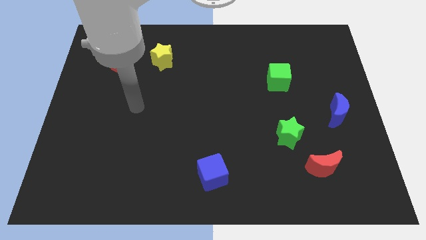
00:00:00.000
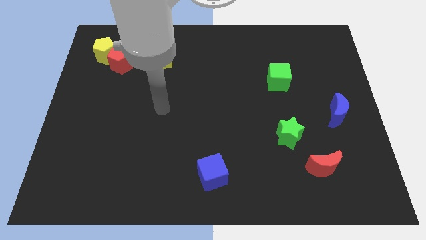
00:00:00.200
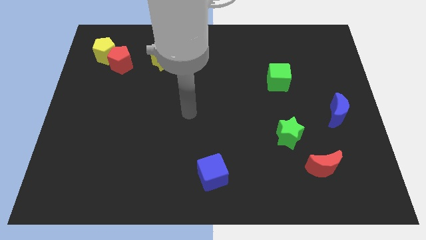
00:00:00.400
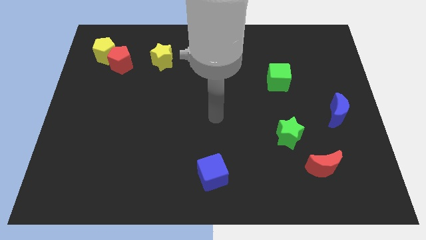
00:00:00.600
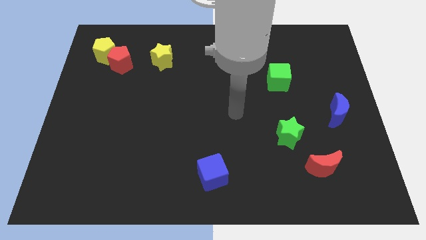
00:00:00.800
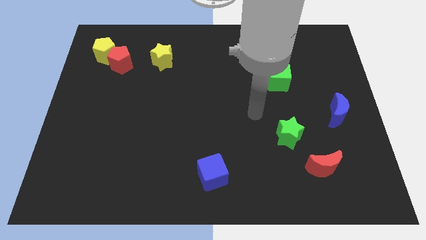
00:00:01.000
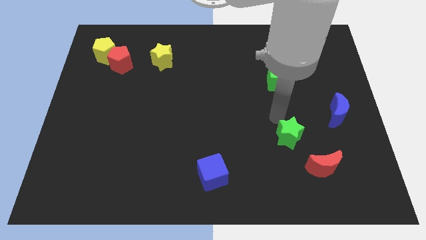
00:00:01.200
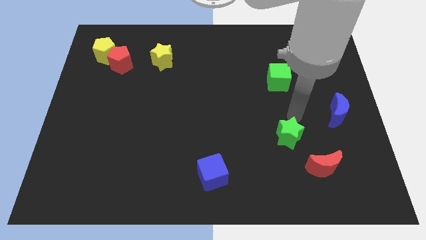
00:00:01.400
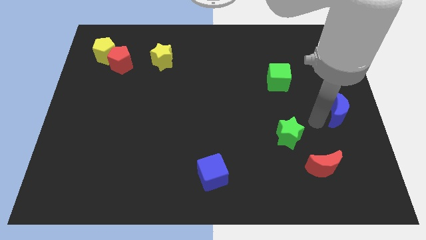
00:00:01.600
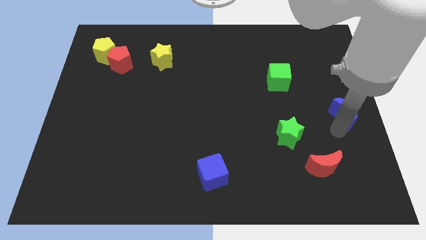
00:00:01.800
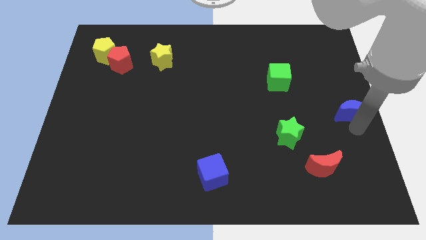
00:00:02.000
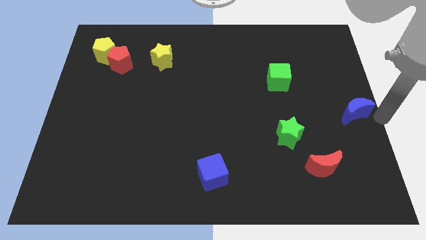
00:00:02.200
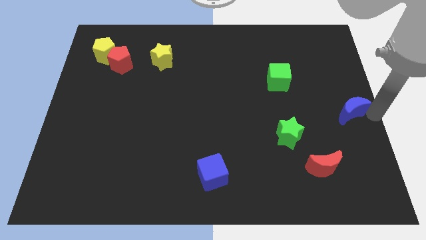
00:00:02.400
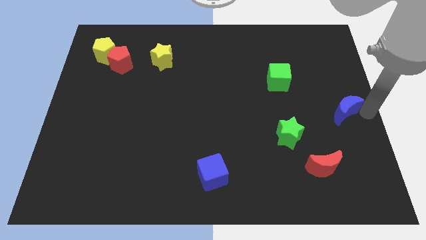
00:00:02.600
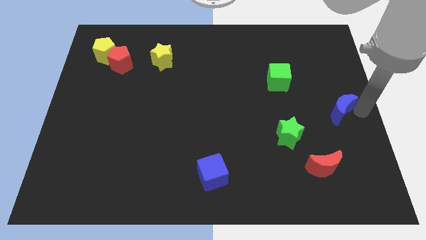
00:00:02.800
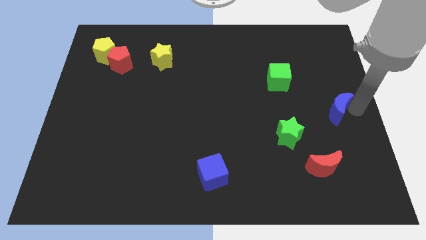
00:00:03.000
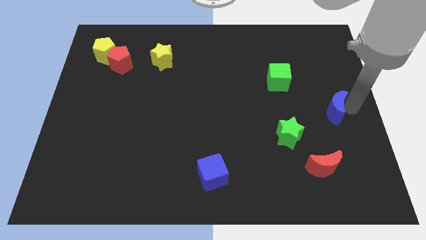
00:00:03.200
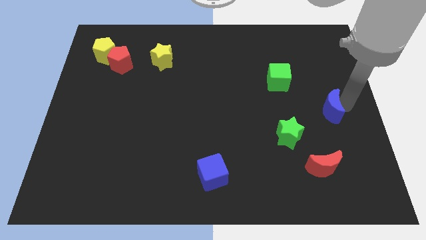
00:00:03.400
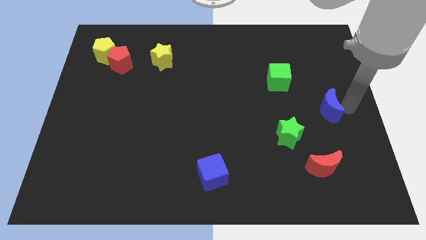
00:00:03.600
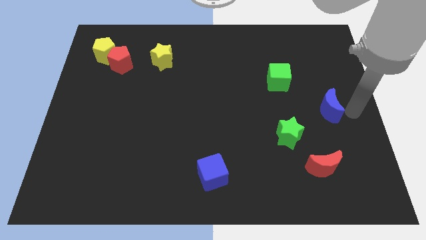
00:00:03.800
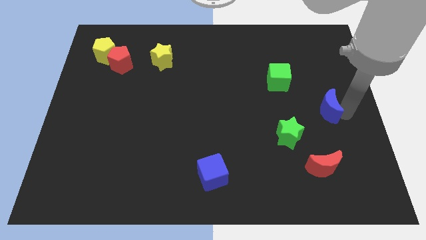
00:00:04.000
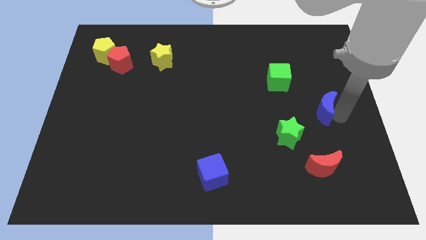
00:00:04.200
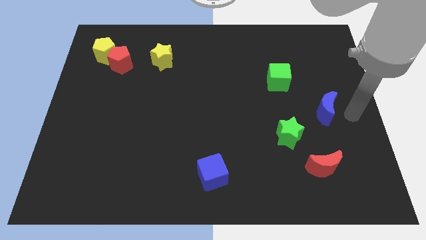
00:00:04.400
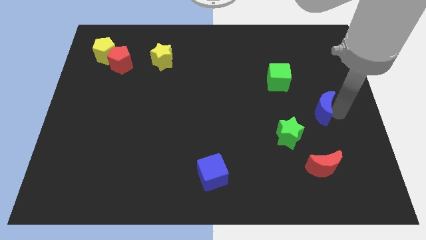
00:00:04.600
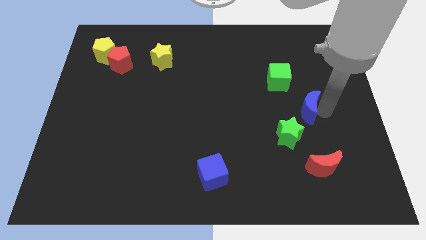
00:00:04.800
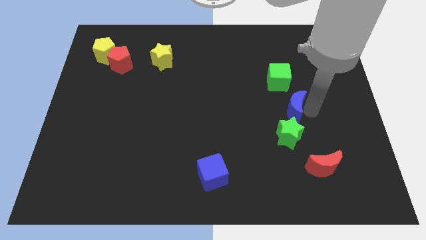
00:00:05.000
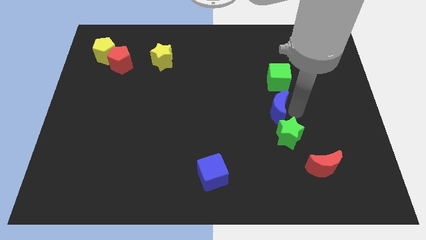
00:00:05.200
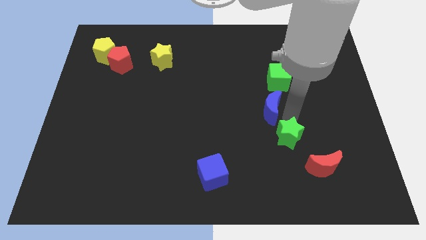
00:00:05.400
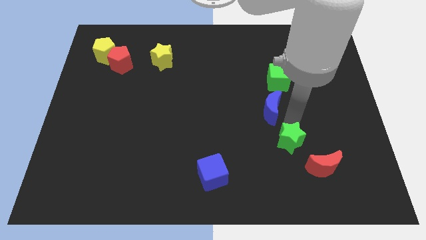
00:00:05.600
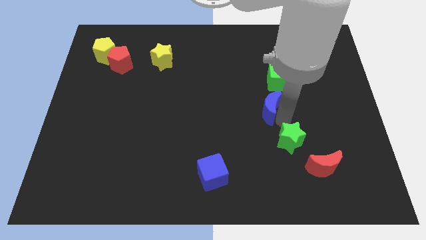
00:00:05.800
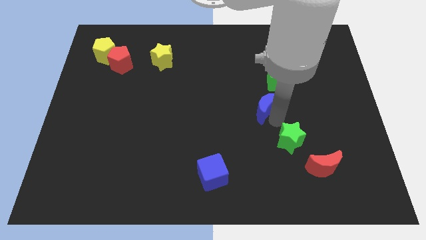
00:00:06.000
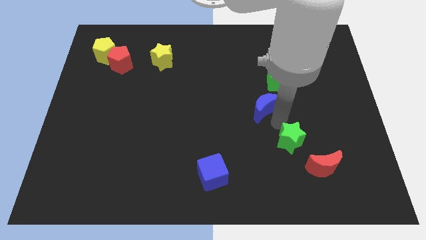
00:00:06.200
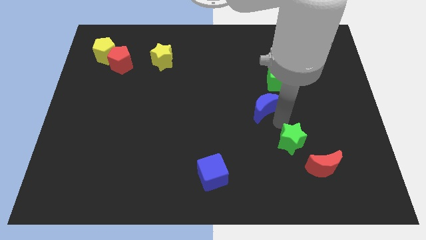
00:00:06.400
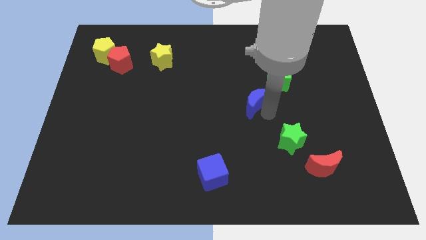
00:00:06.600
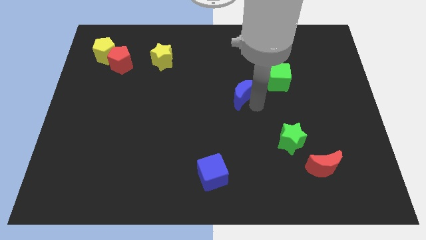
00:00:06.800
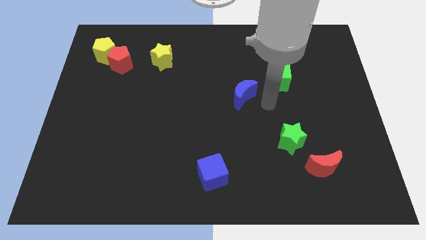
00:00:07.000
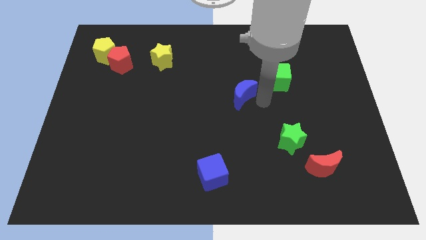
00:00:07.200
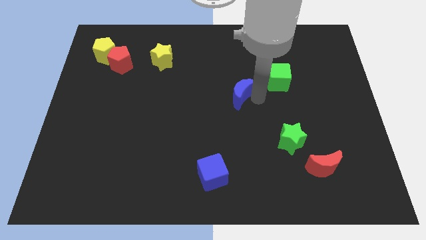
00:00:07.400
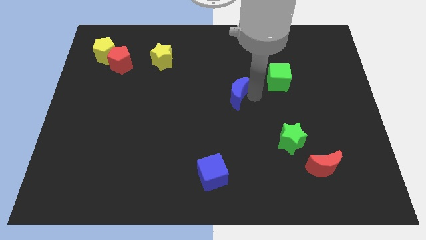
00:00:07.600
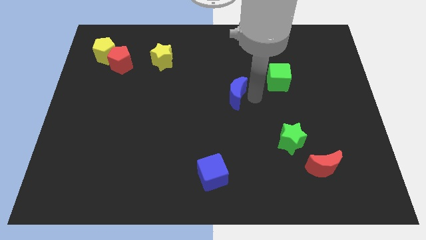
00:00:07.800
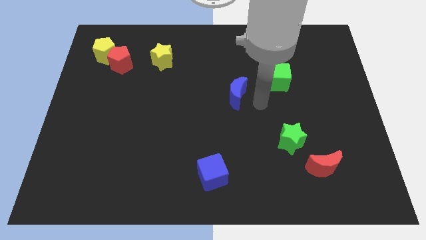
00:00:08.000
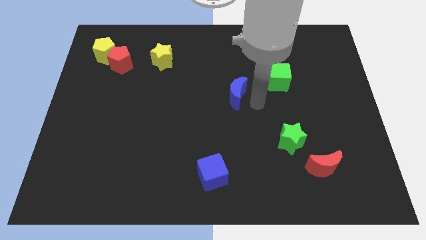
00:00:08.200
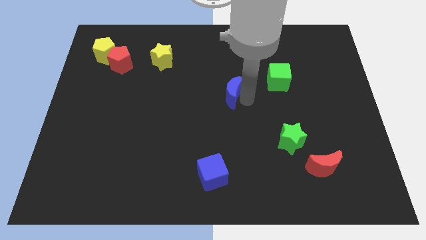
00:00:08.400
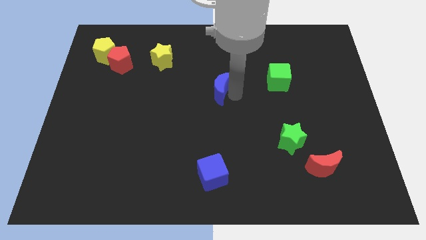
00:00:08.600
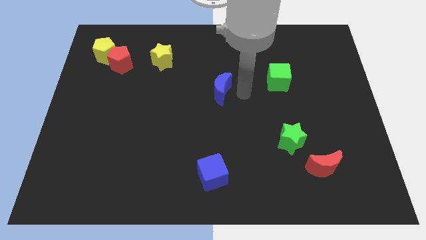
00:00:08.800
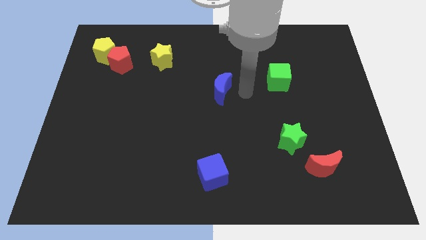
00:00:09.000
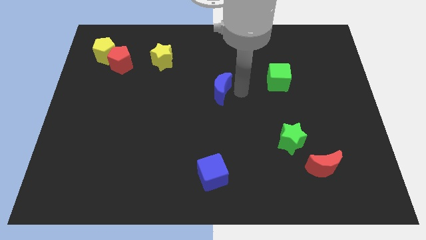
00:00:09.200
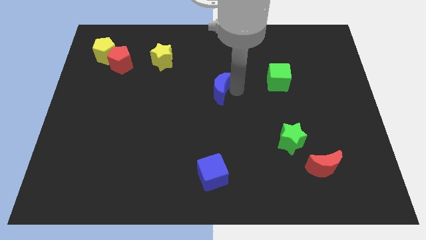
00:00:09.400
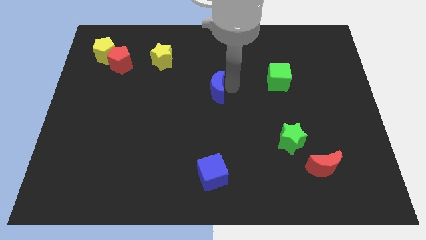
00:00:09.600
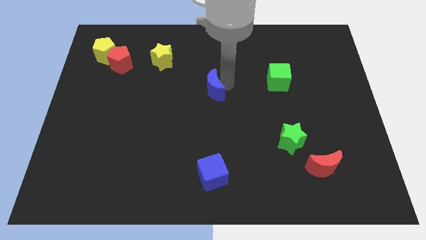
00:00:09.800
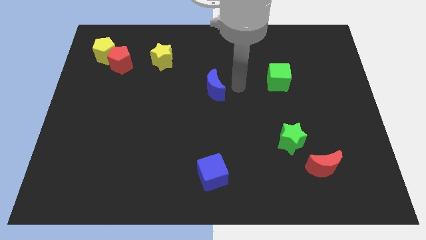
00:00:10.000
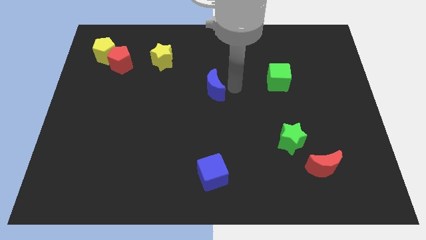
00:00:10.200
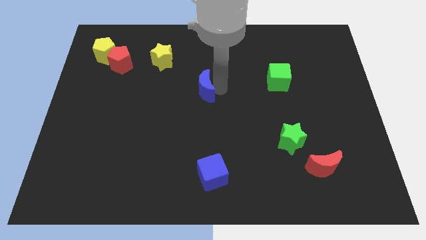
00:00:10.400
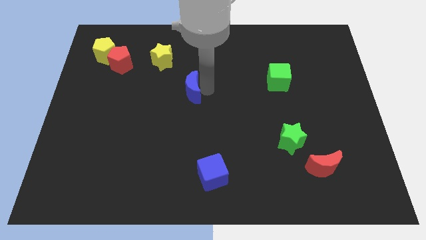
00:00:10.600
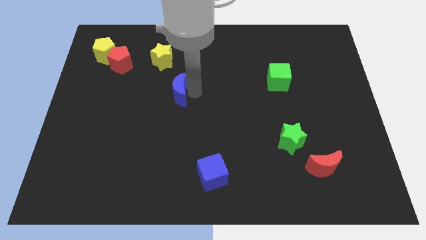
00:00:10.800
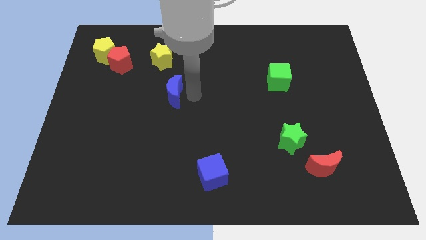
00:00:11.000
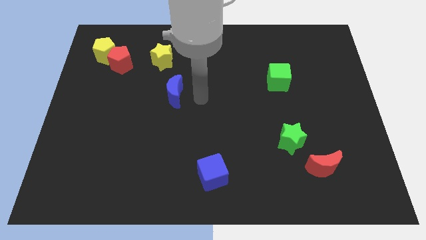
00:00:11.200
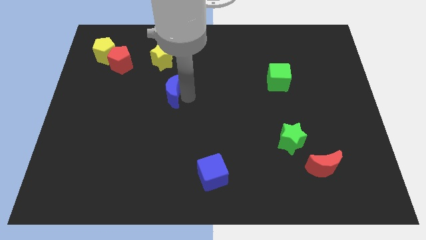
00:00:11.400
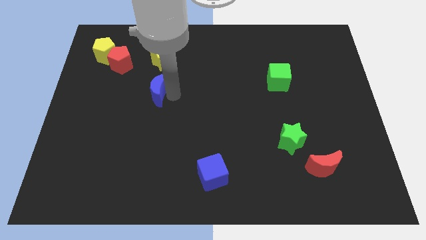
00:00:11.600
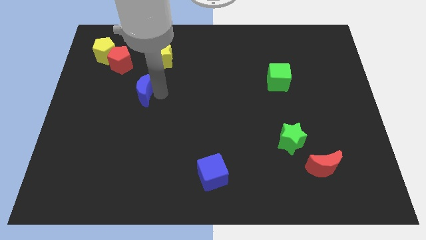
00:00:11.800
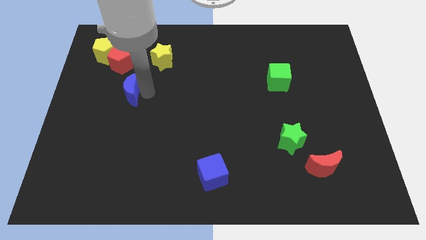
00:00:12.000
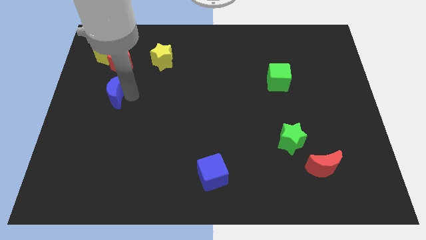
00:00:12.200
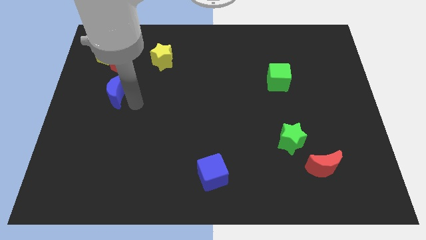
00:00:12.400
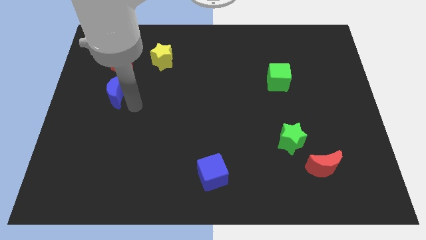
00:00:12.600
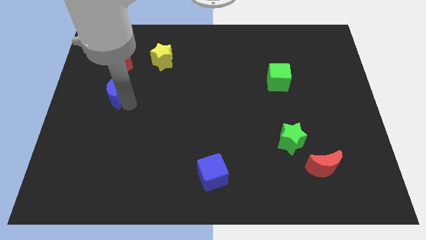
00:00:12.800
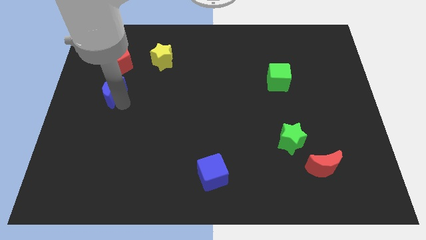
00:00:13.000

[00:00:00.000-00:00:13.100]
put the blue moon below the yellow pentagon

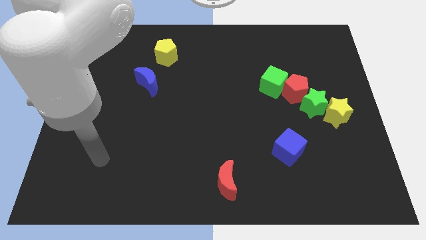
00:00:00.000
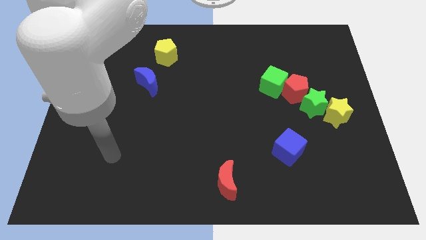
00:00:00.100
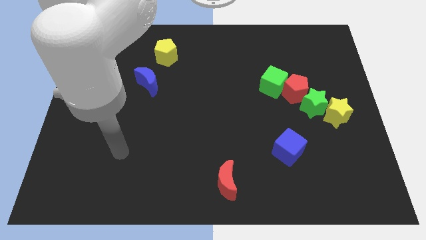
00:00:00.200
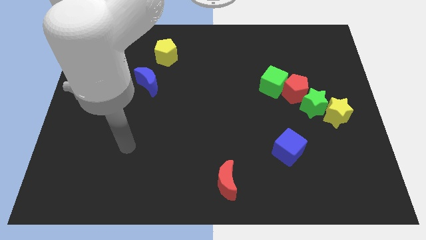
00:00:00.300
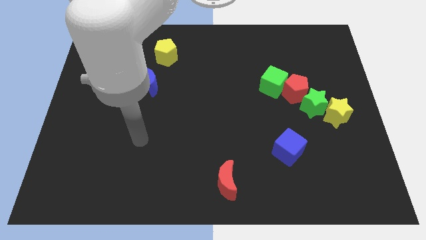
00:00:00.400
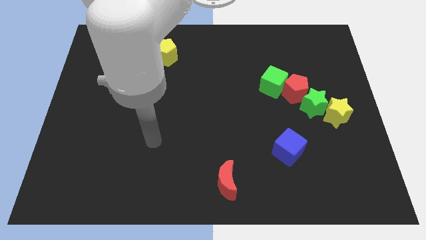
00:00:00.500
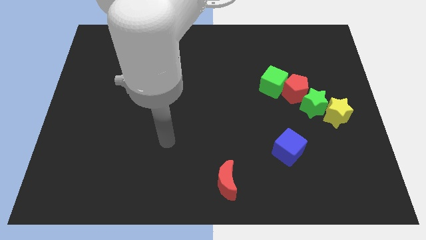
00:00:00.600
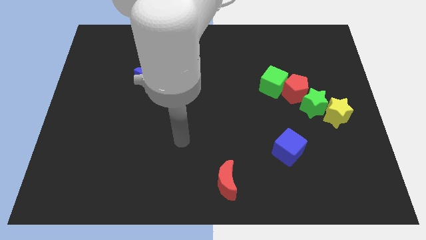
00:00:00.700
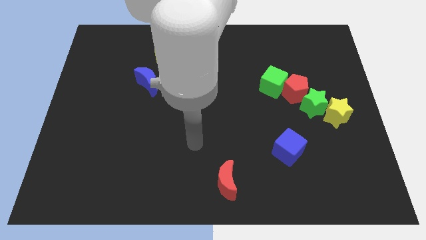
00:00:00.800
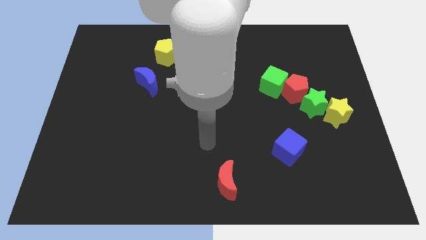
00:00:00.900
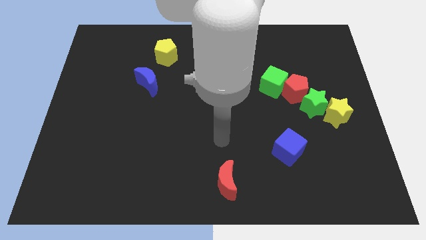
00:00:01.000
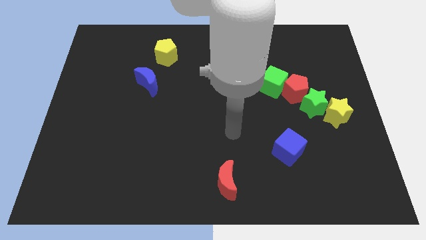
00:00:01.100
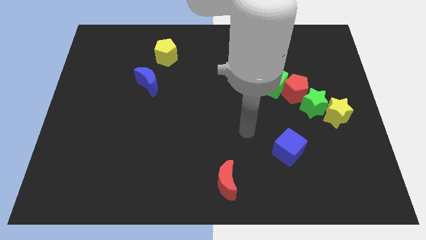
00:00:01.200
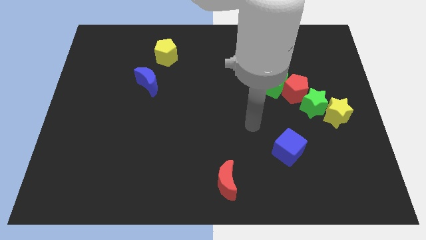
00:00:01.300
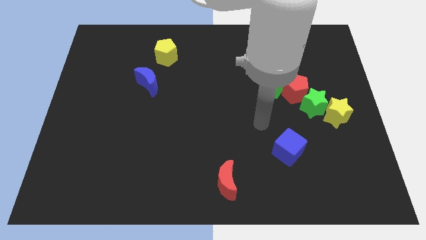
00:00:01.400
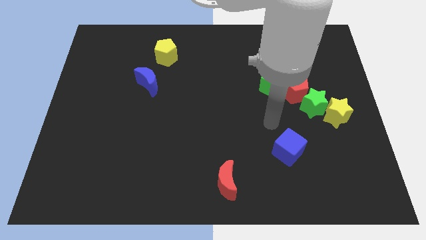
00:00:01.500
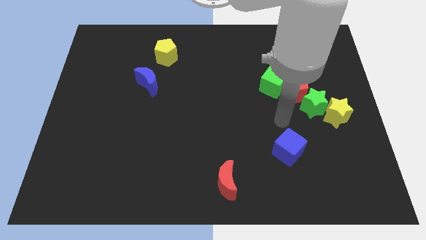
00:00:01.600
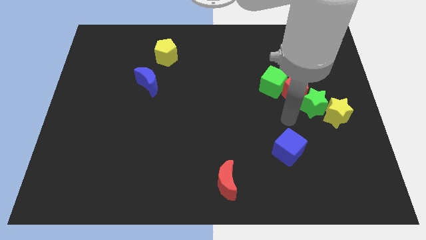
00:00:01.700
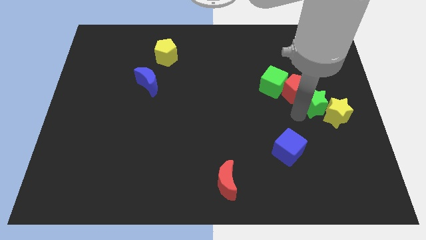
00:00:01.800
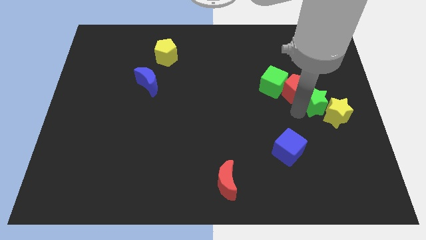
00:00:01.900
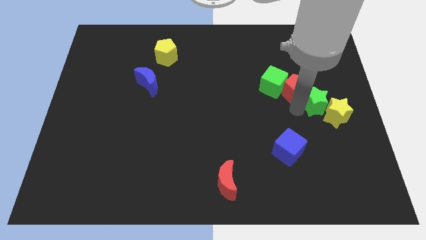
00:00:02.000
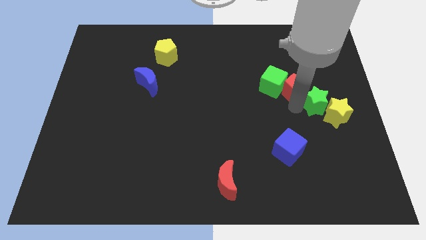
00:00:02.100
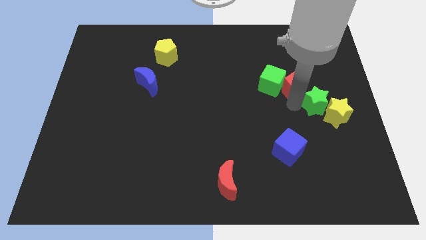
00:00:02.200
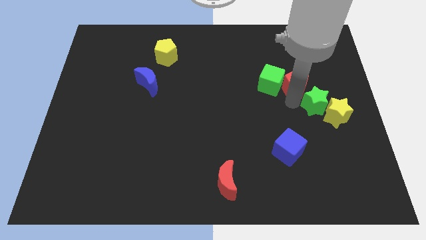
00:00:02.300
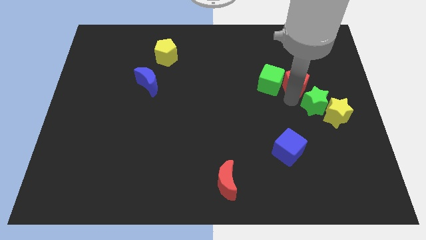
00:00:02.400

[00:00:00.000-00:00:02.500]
move the red pentagon diagonally up and to the right of the green cube
